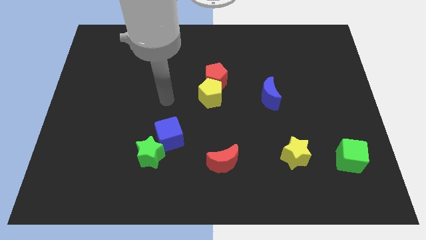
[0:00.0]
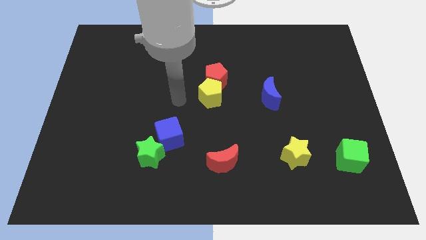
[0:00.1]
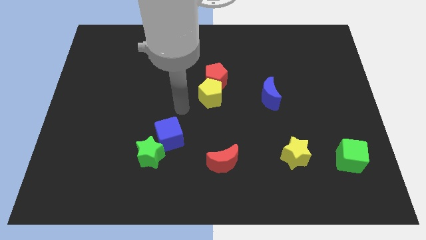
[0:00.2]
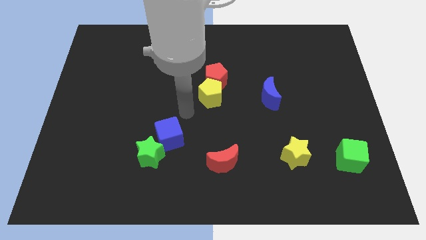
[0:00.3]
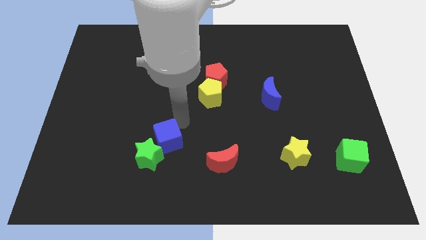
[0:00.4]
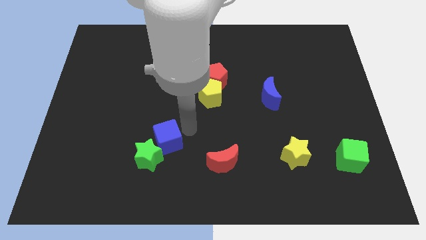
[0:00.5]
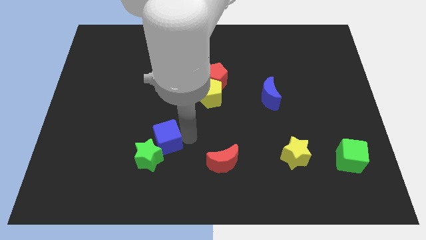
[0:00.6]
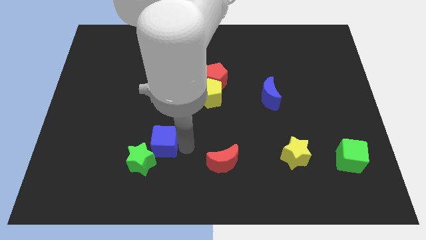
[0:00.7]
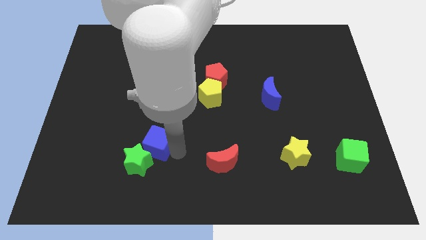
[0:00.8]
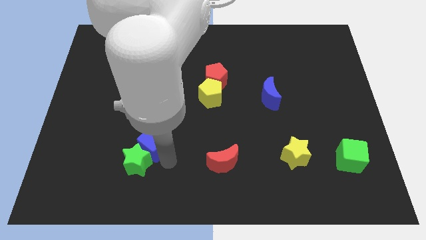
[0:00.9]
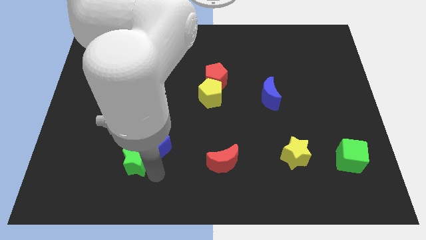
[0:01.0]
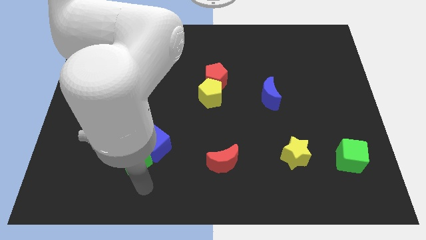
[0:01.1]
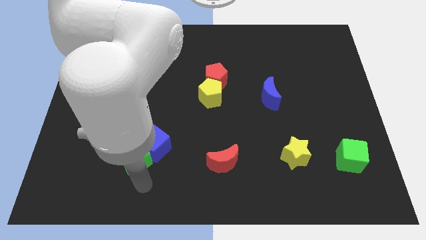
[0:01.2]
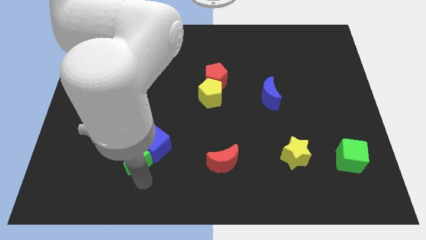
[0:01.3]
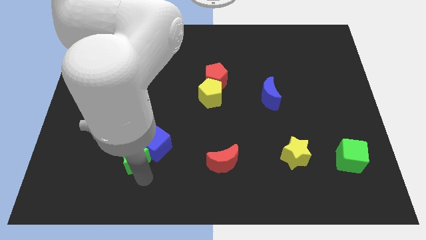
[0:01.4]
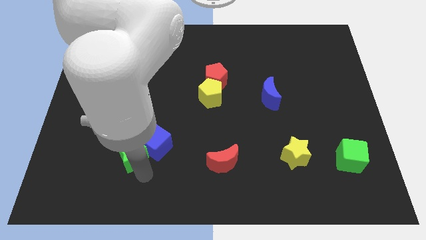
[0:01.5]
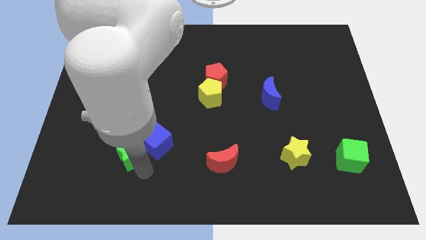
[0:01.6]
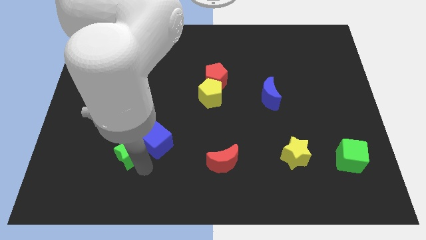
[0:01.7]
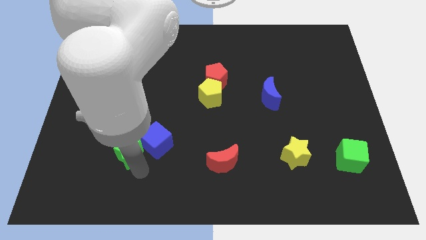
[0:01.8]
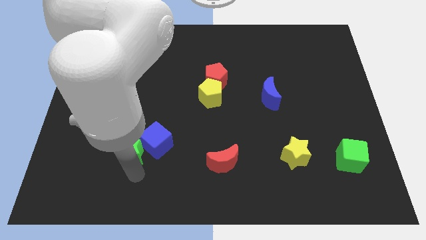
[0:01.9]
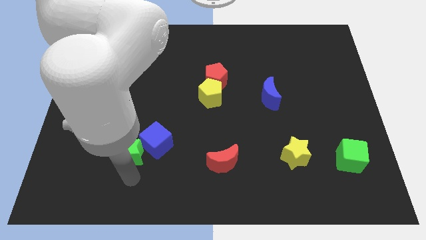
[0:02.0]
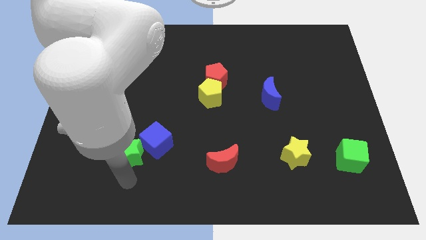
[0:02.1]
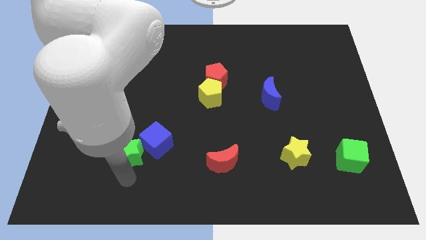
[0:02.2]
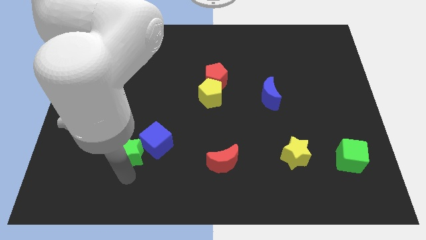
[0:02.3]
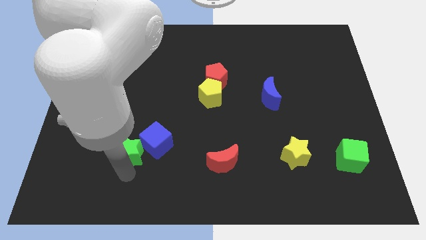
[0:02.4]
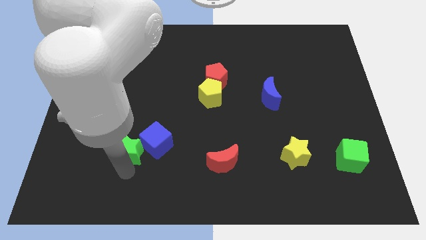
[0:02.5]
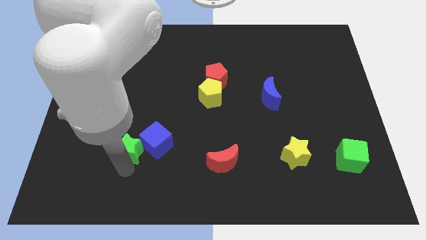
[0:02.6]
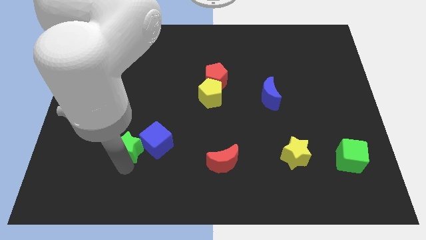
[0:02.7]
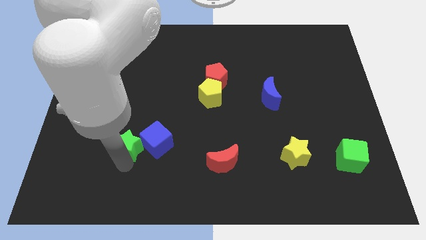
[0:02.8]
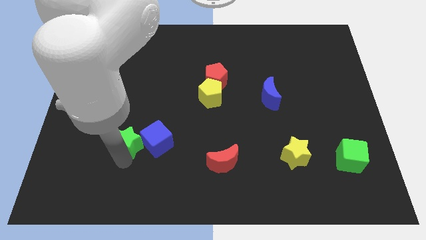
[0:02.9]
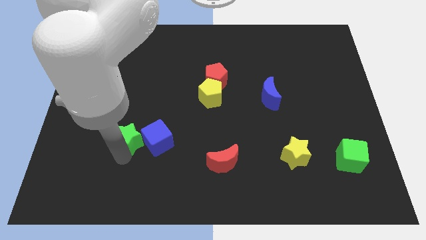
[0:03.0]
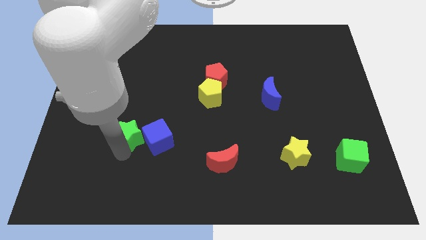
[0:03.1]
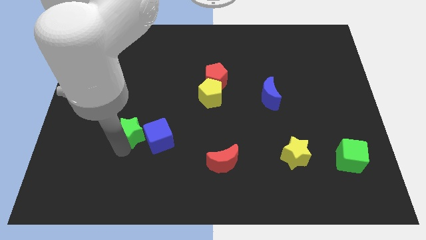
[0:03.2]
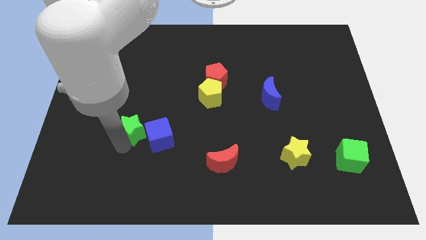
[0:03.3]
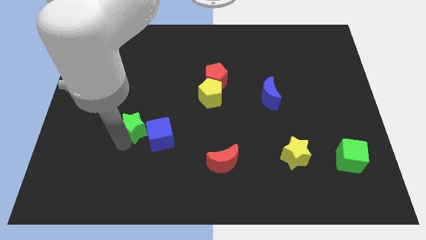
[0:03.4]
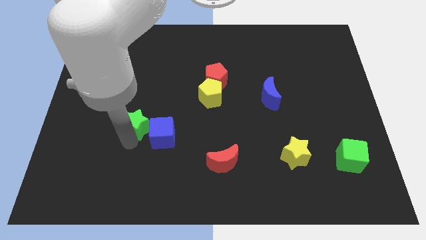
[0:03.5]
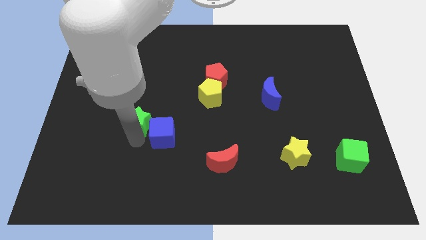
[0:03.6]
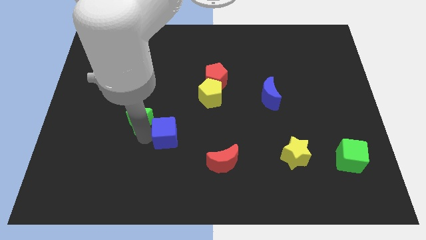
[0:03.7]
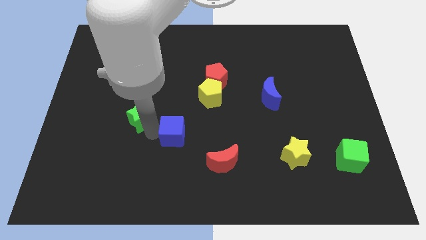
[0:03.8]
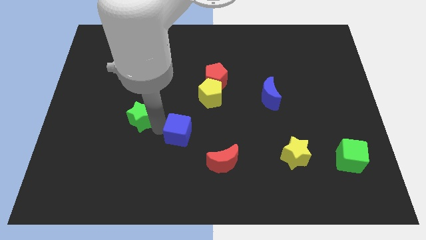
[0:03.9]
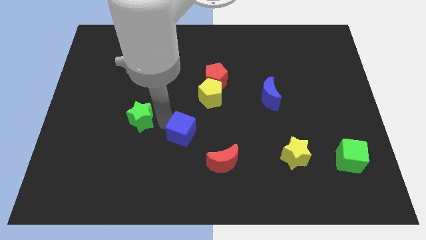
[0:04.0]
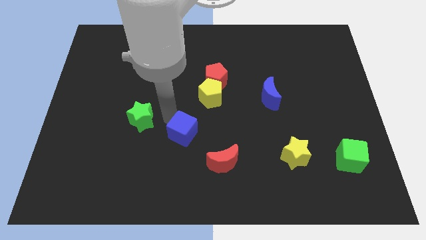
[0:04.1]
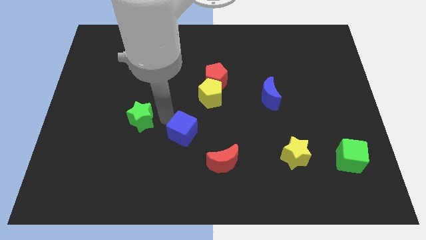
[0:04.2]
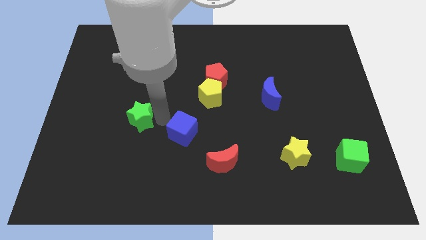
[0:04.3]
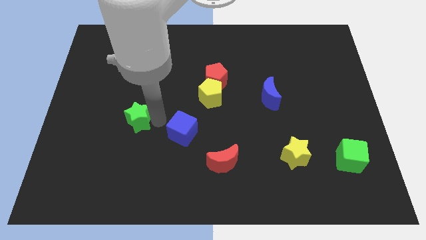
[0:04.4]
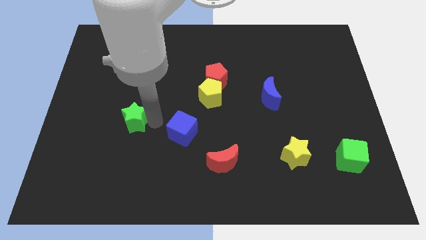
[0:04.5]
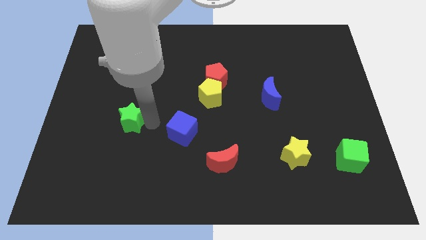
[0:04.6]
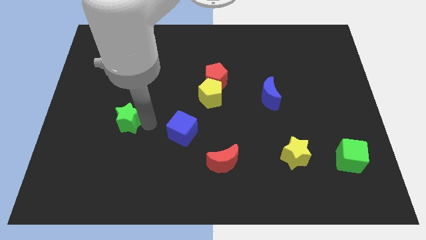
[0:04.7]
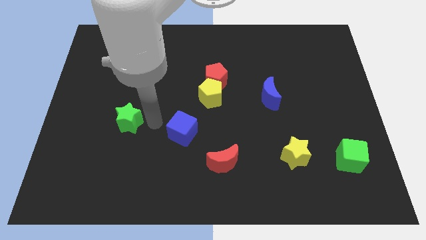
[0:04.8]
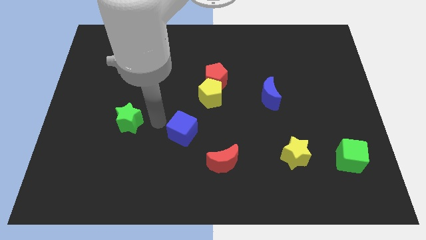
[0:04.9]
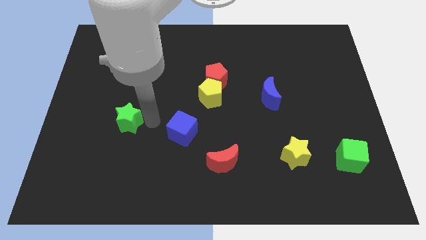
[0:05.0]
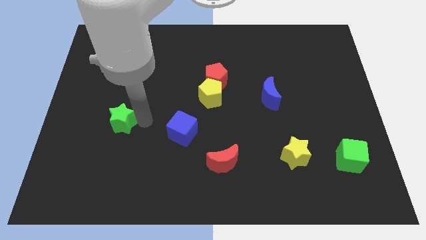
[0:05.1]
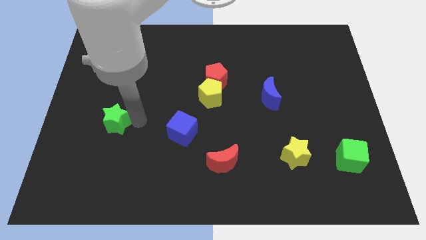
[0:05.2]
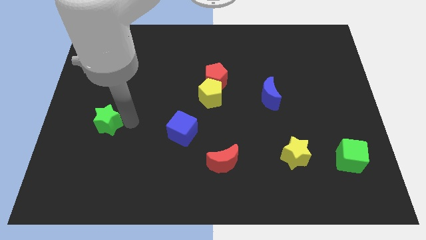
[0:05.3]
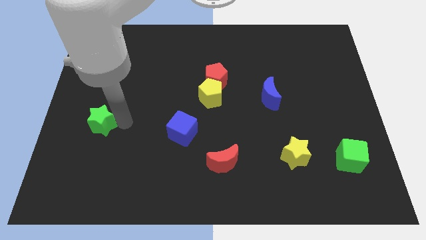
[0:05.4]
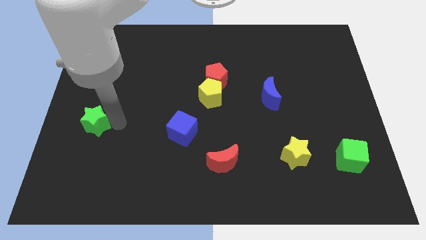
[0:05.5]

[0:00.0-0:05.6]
put the green star to the left side

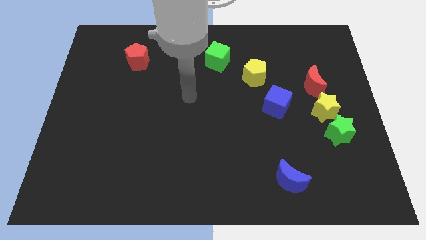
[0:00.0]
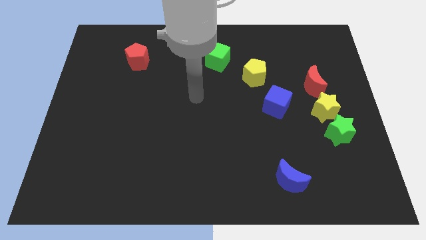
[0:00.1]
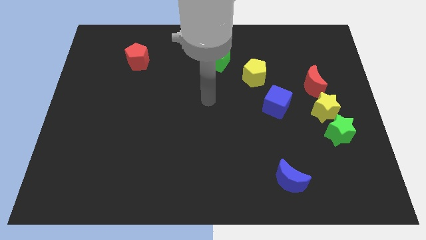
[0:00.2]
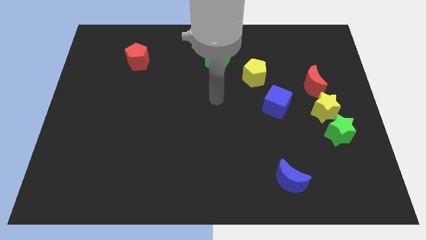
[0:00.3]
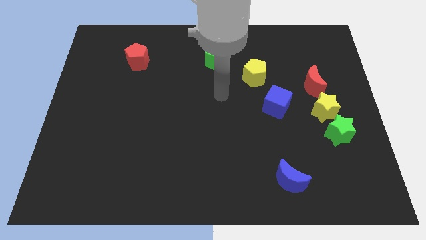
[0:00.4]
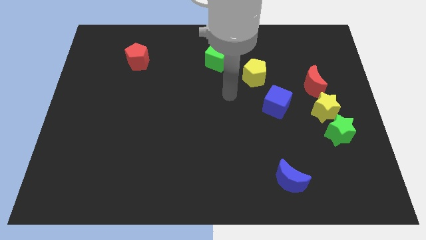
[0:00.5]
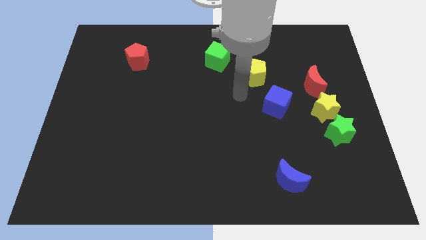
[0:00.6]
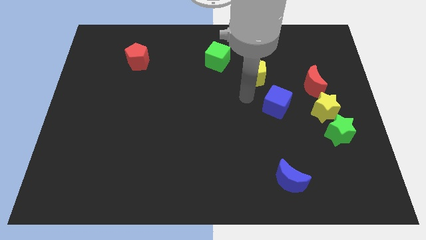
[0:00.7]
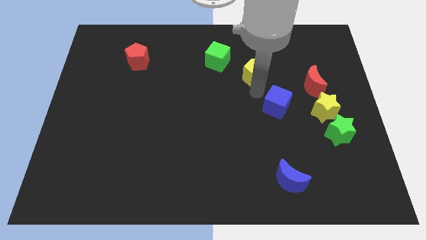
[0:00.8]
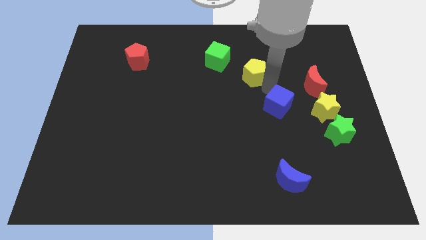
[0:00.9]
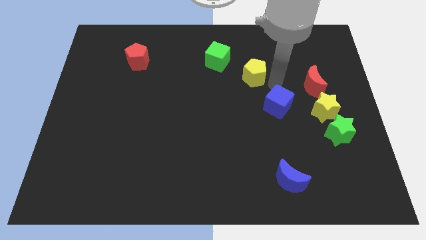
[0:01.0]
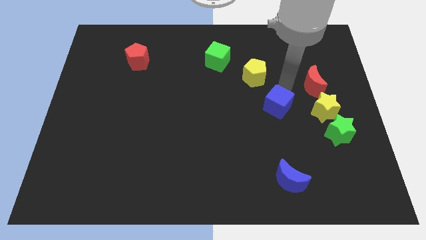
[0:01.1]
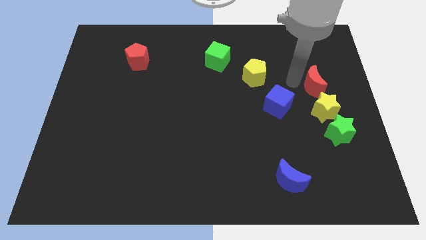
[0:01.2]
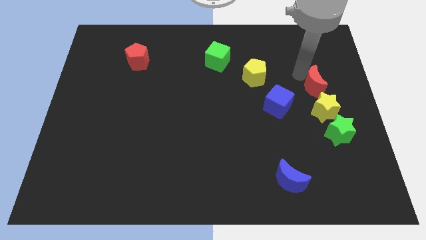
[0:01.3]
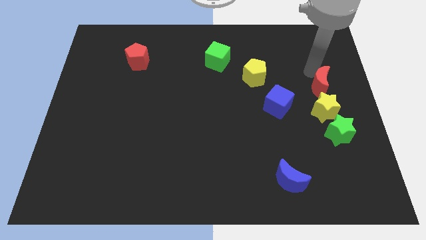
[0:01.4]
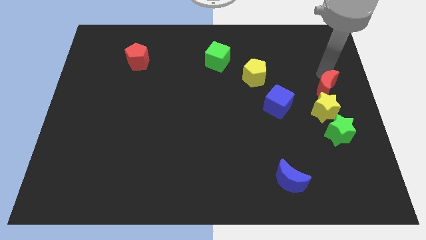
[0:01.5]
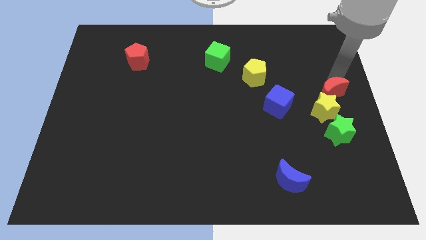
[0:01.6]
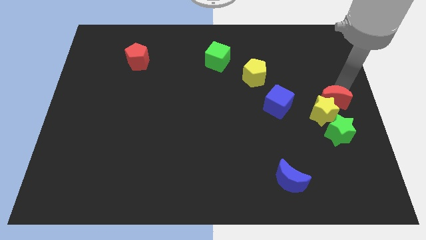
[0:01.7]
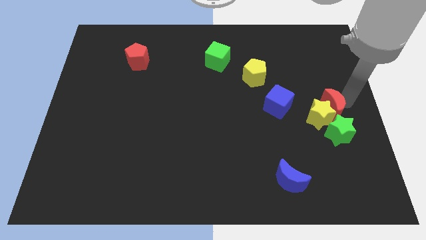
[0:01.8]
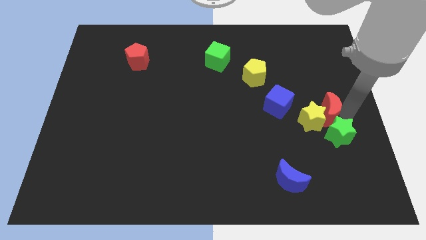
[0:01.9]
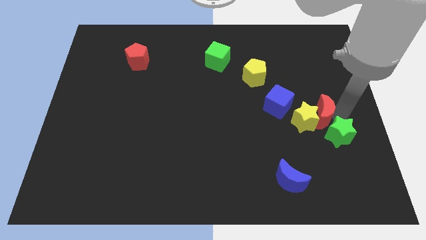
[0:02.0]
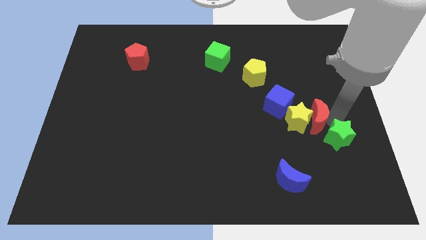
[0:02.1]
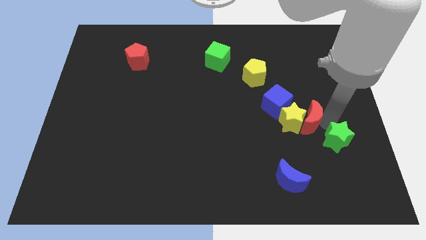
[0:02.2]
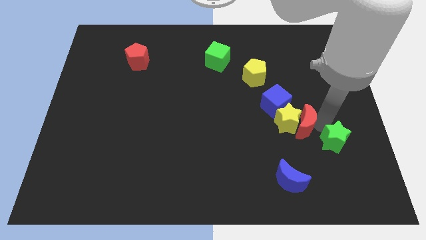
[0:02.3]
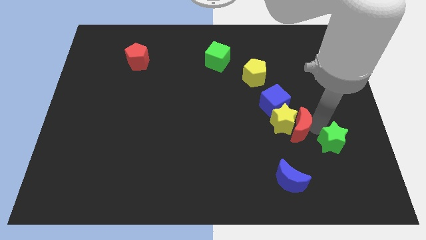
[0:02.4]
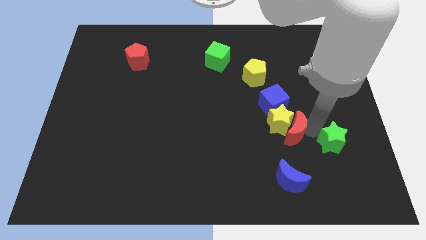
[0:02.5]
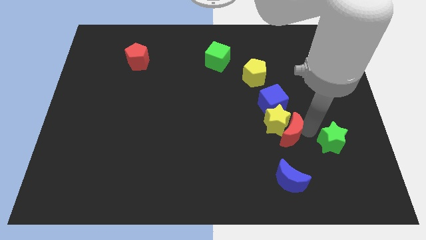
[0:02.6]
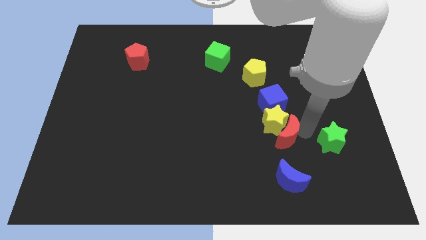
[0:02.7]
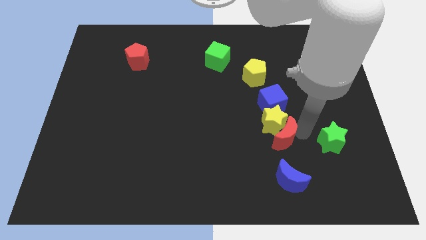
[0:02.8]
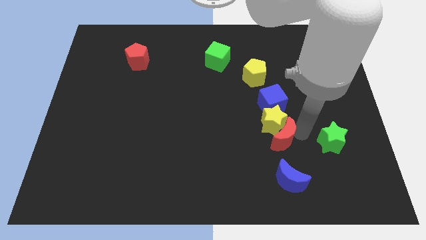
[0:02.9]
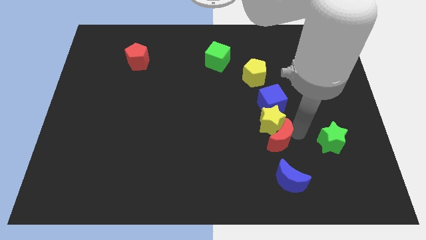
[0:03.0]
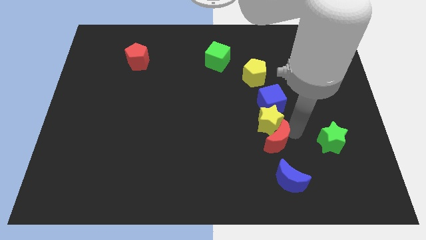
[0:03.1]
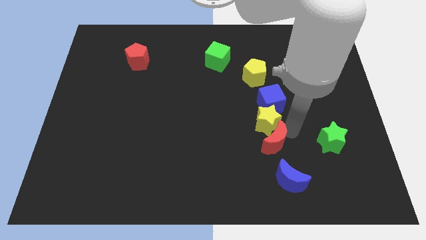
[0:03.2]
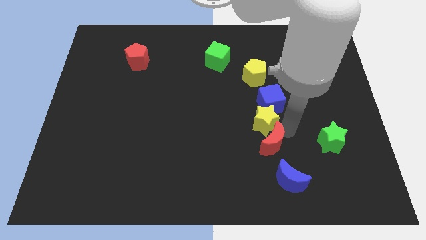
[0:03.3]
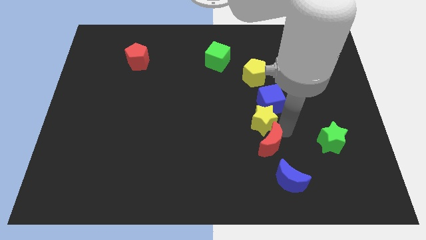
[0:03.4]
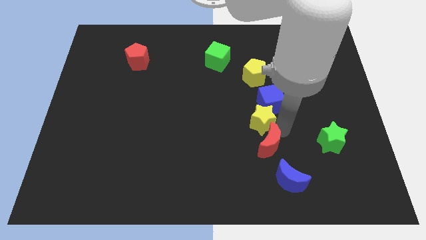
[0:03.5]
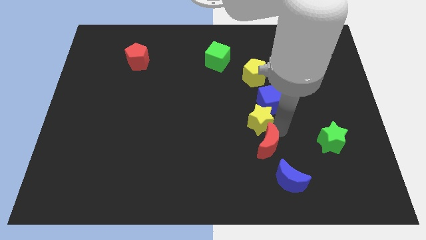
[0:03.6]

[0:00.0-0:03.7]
push the yellow star to the center
